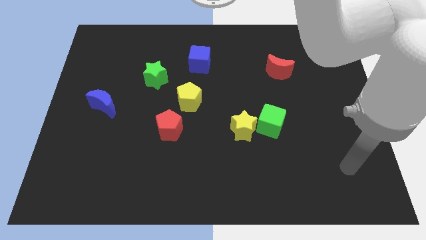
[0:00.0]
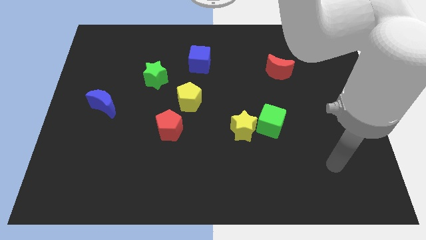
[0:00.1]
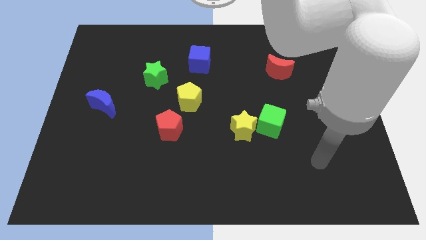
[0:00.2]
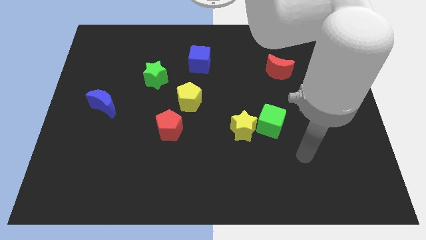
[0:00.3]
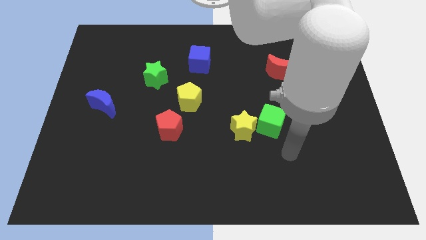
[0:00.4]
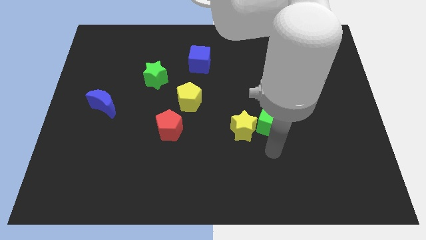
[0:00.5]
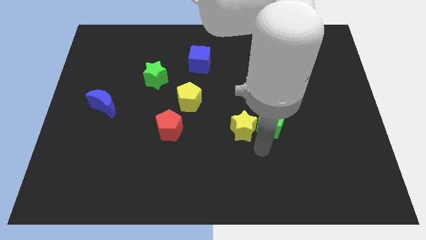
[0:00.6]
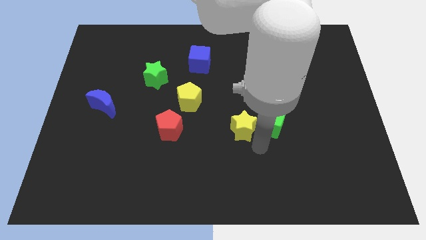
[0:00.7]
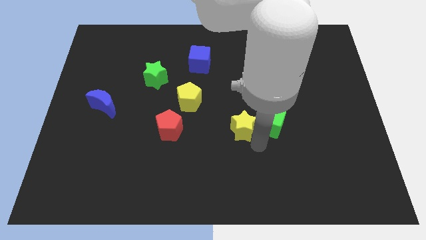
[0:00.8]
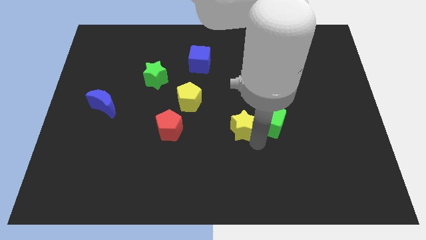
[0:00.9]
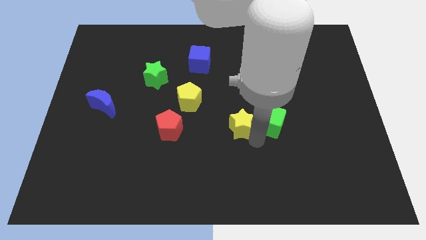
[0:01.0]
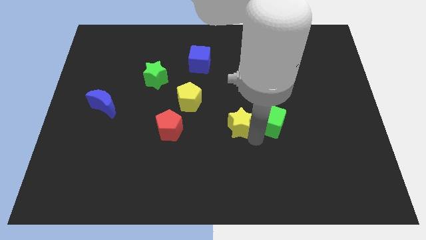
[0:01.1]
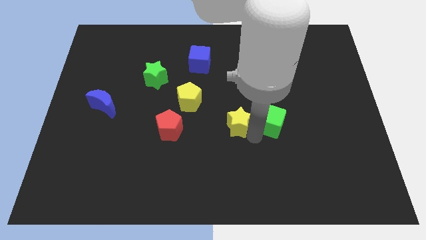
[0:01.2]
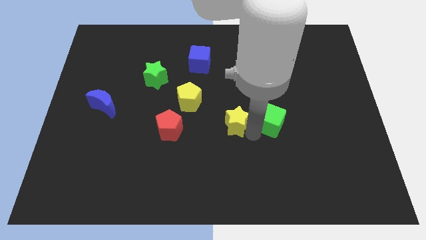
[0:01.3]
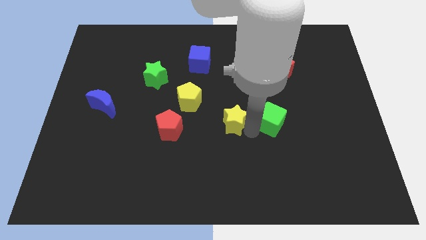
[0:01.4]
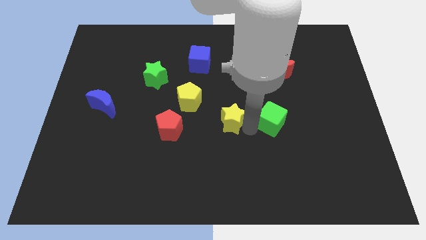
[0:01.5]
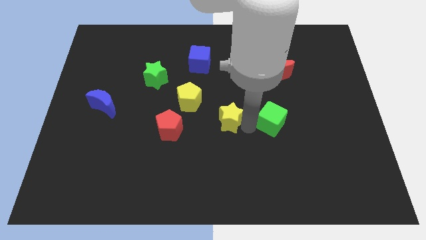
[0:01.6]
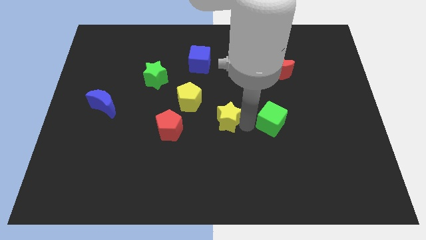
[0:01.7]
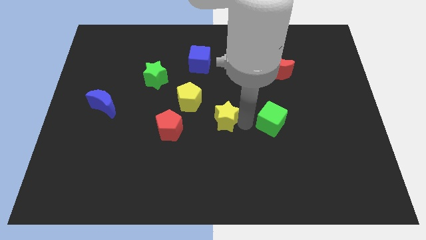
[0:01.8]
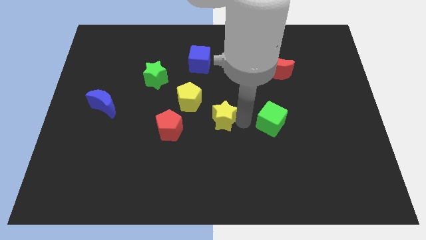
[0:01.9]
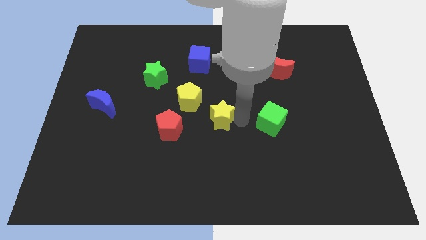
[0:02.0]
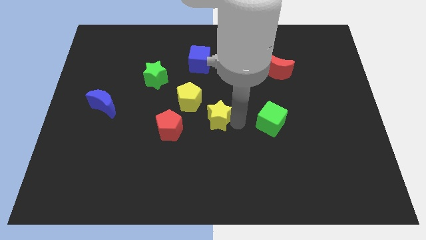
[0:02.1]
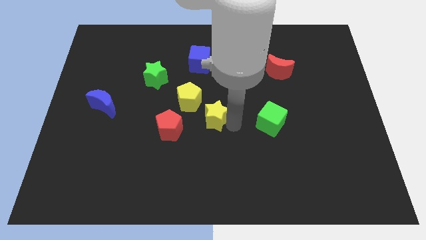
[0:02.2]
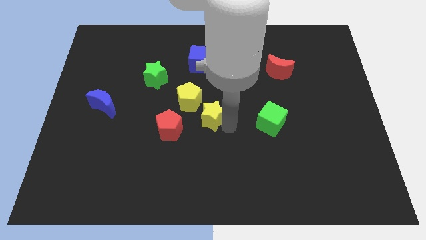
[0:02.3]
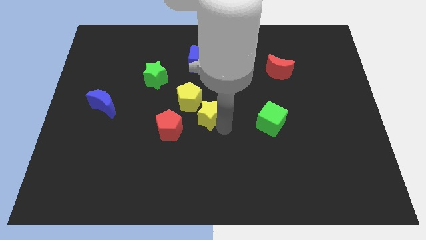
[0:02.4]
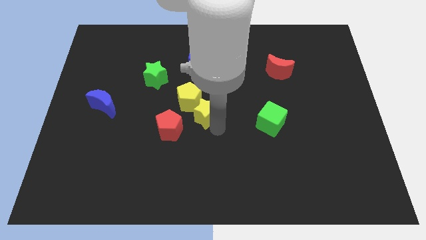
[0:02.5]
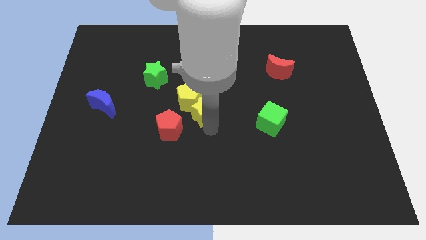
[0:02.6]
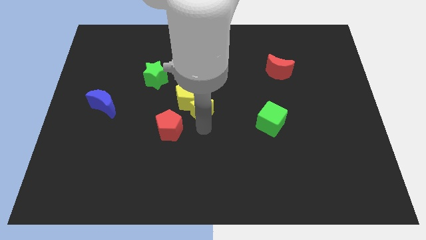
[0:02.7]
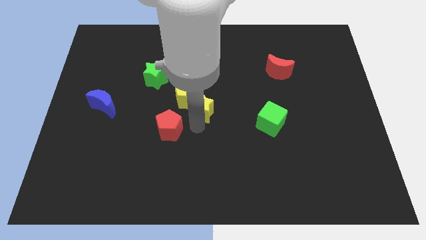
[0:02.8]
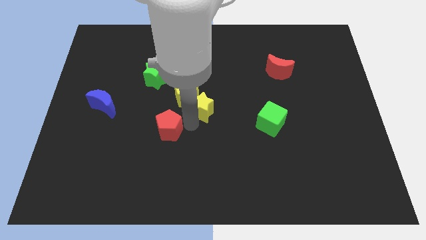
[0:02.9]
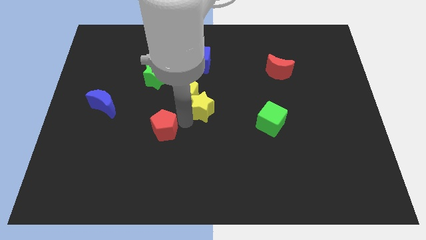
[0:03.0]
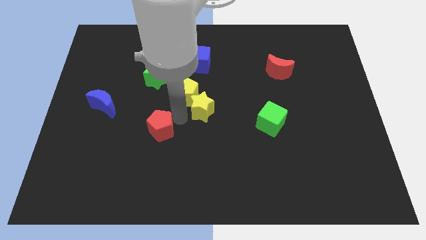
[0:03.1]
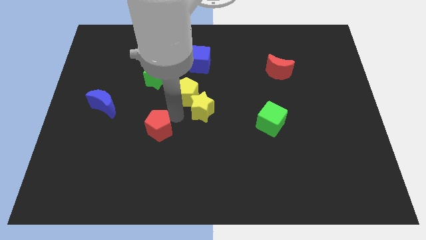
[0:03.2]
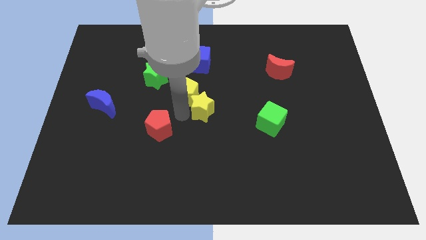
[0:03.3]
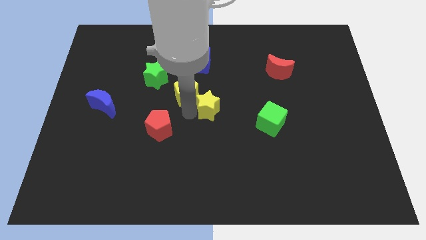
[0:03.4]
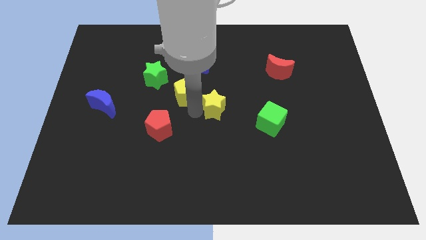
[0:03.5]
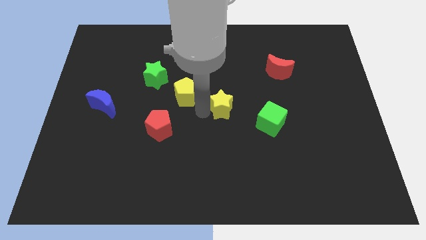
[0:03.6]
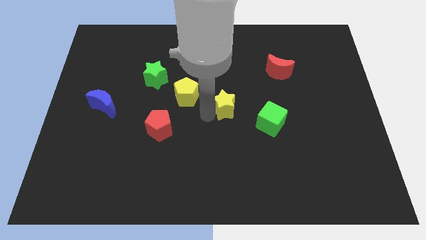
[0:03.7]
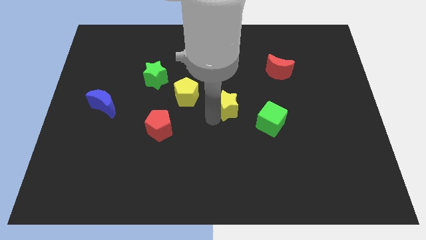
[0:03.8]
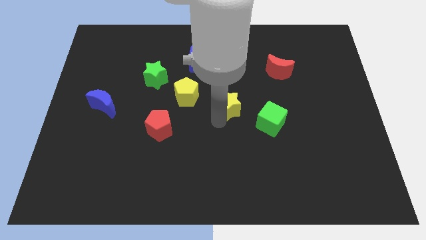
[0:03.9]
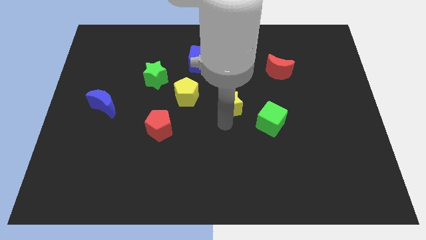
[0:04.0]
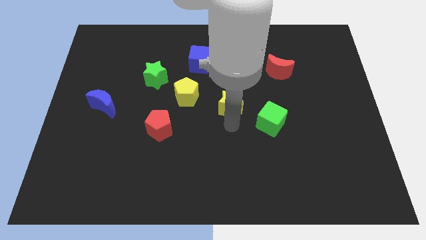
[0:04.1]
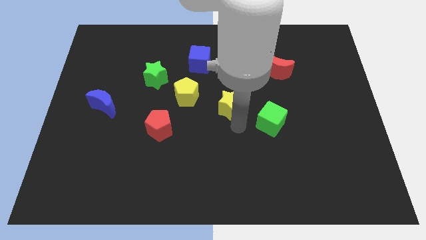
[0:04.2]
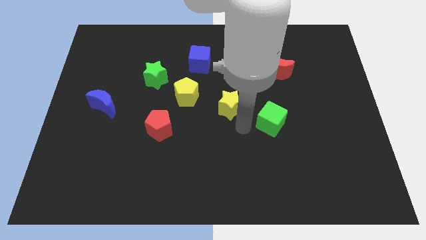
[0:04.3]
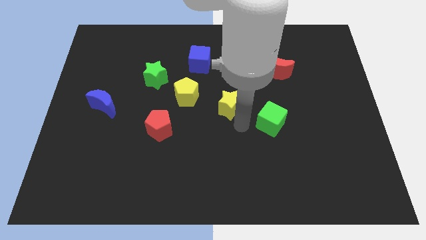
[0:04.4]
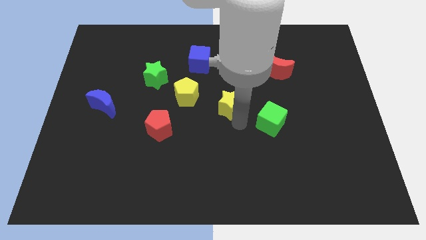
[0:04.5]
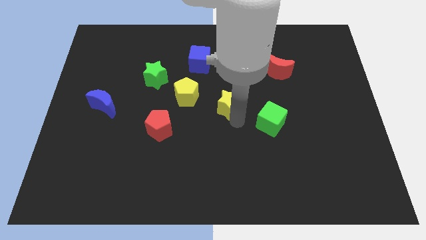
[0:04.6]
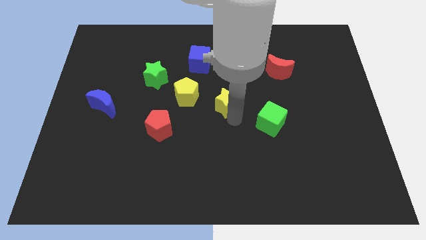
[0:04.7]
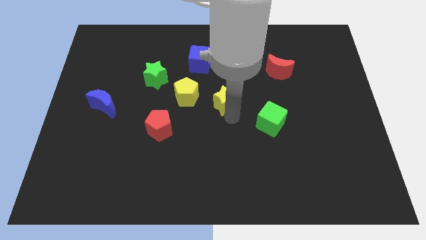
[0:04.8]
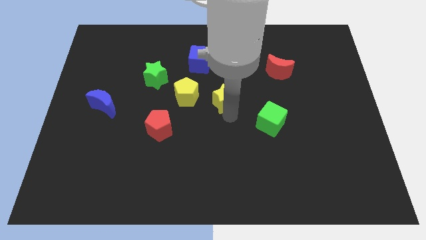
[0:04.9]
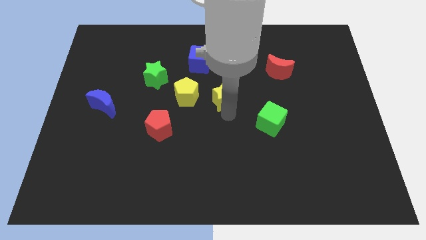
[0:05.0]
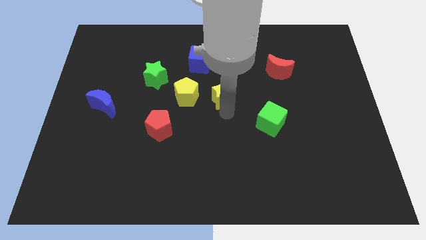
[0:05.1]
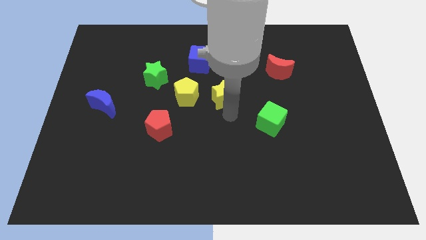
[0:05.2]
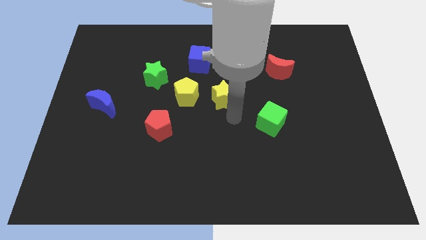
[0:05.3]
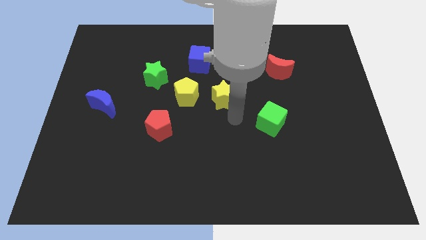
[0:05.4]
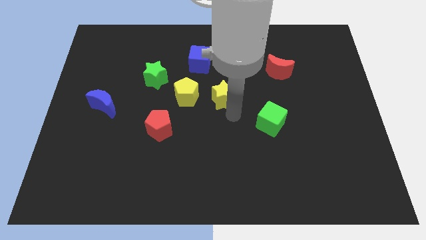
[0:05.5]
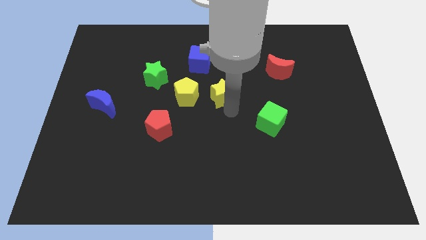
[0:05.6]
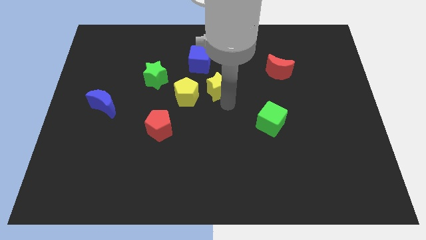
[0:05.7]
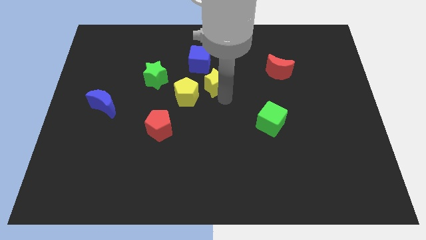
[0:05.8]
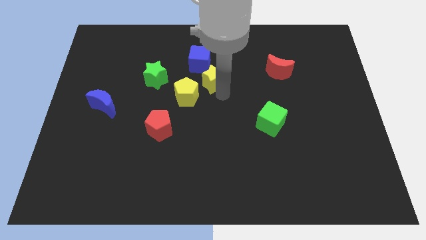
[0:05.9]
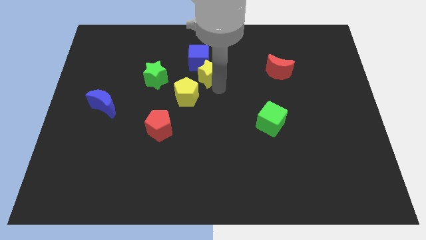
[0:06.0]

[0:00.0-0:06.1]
put the yellow star next to the blue cube

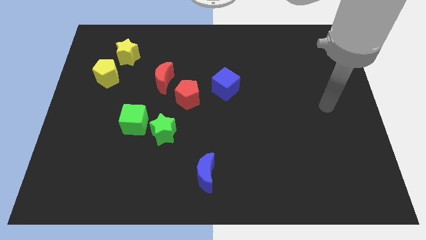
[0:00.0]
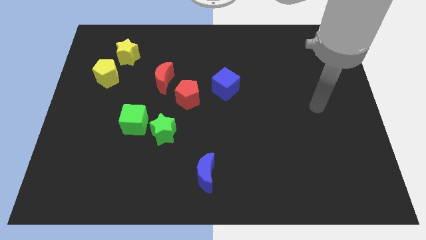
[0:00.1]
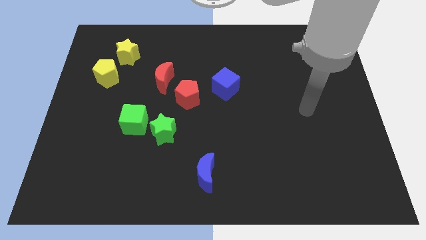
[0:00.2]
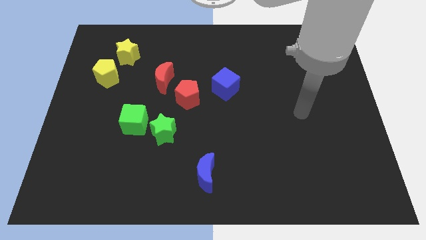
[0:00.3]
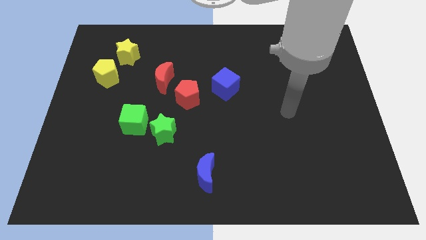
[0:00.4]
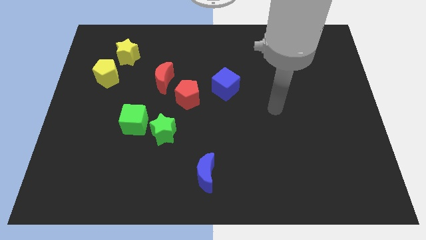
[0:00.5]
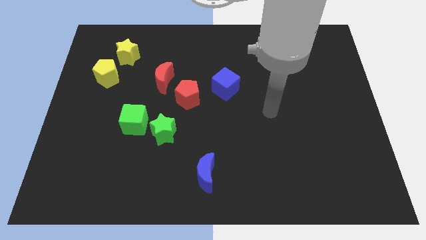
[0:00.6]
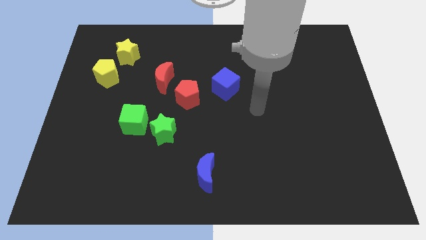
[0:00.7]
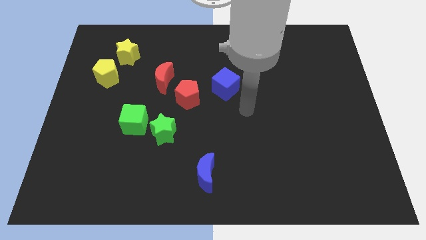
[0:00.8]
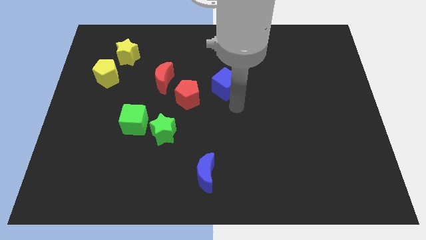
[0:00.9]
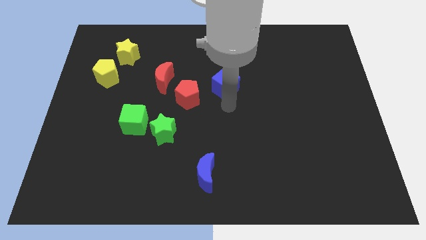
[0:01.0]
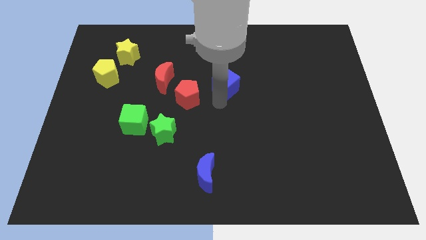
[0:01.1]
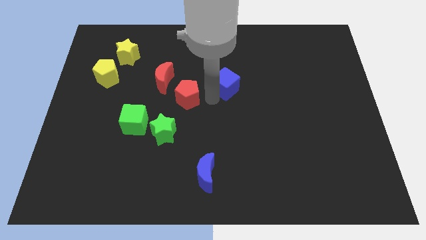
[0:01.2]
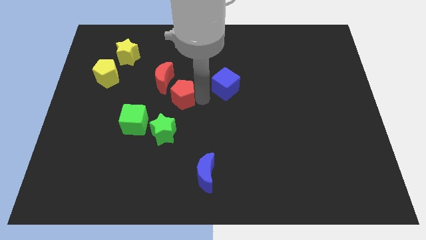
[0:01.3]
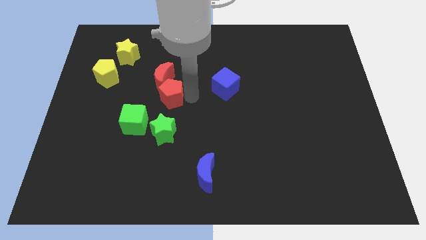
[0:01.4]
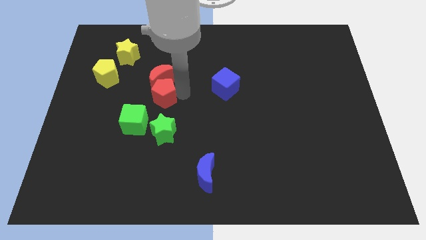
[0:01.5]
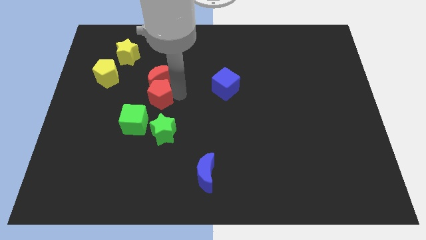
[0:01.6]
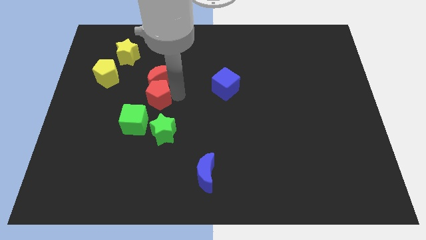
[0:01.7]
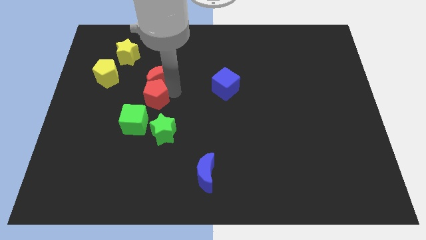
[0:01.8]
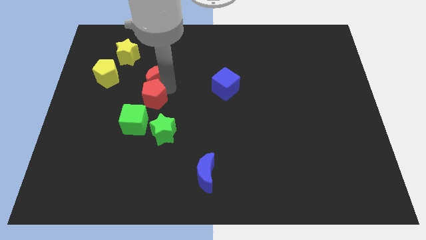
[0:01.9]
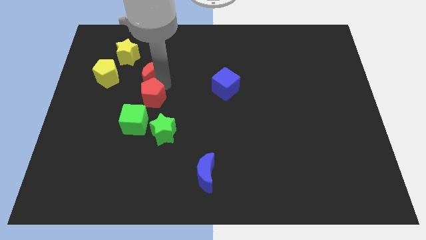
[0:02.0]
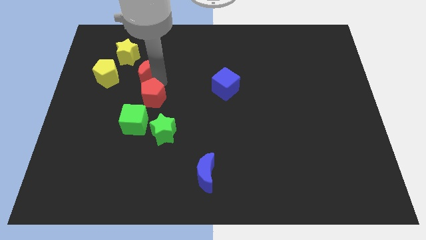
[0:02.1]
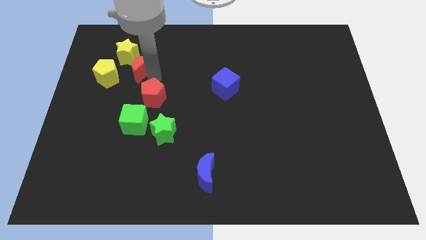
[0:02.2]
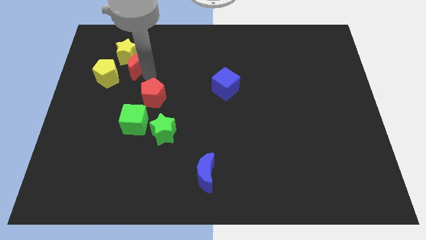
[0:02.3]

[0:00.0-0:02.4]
move the red moon close to the yellow star
